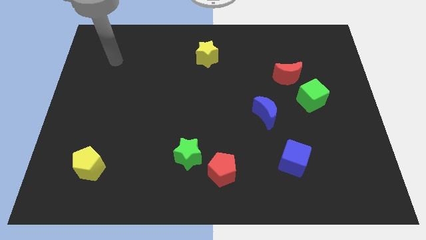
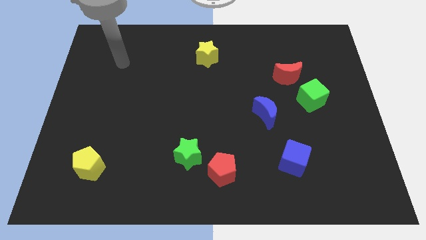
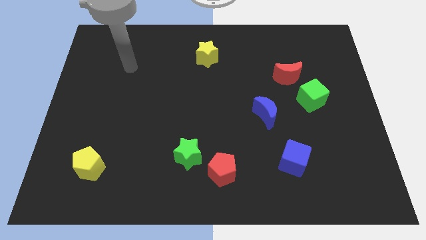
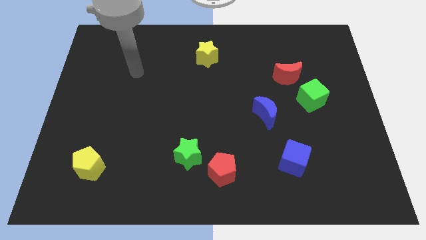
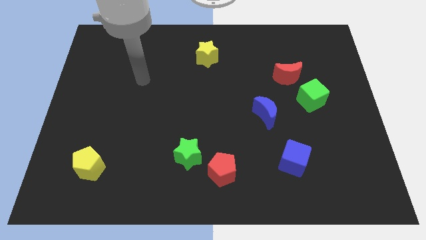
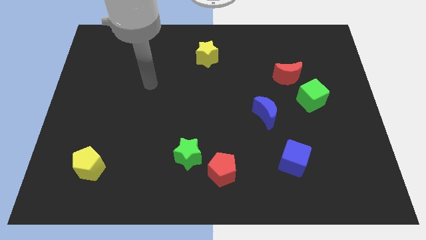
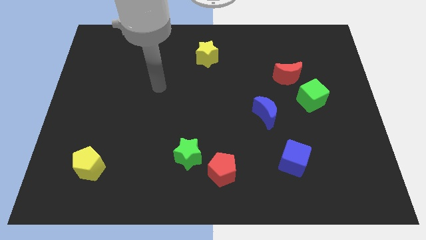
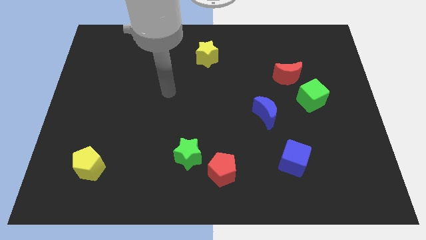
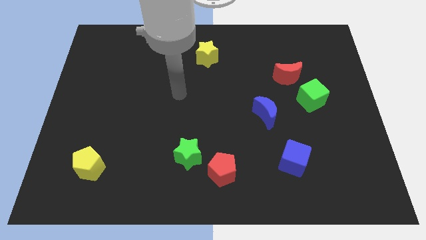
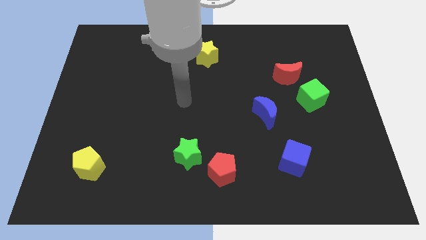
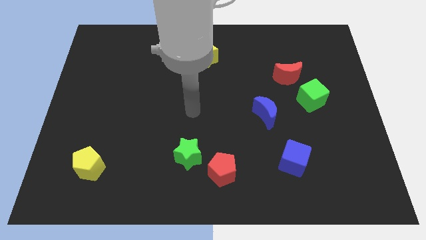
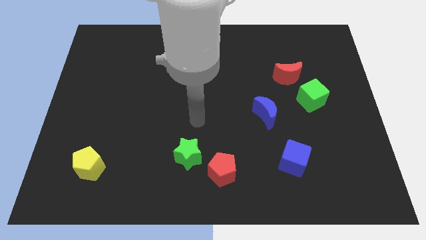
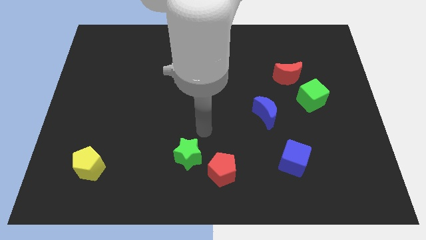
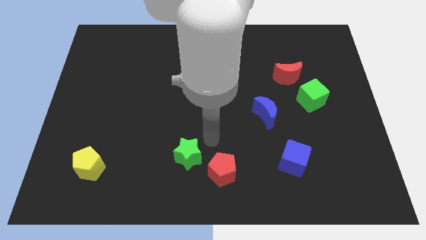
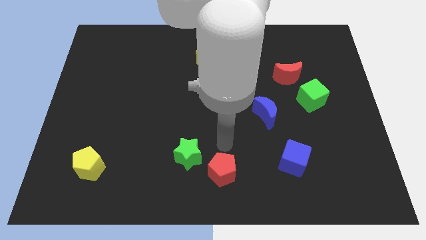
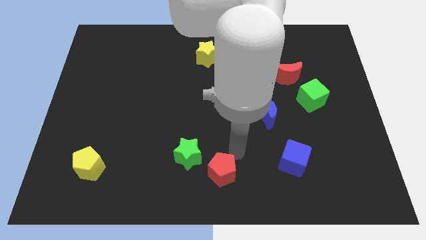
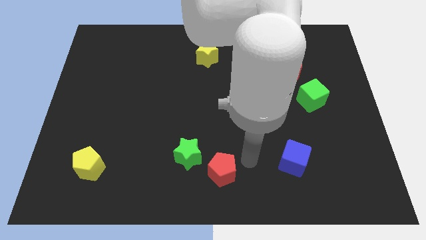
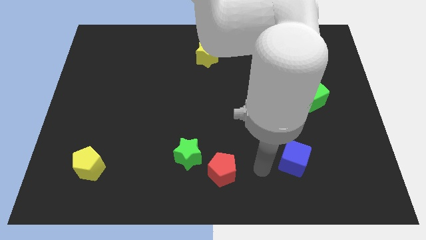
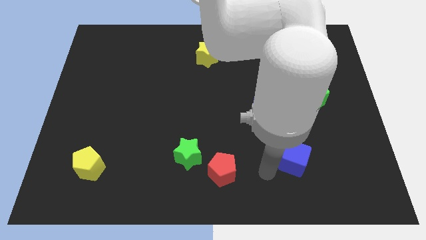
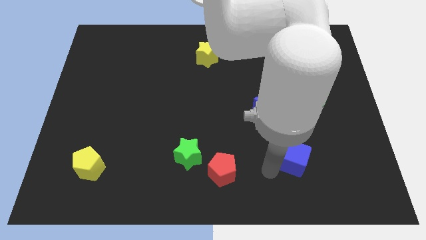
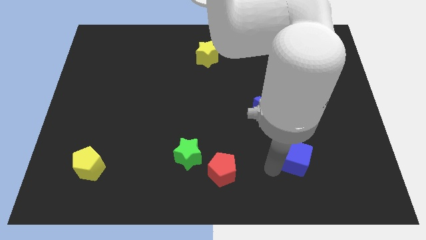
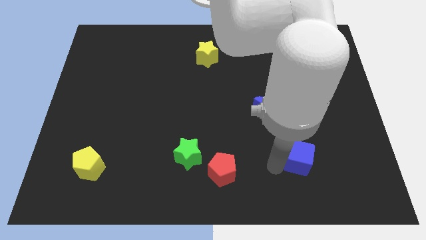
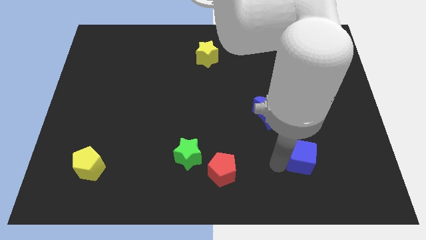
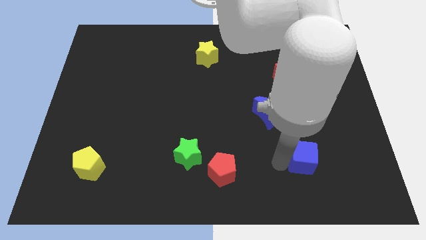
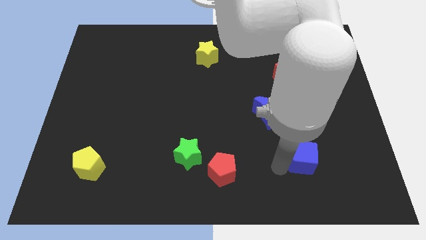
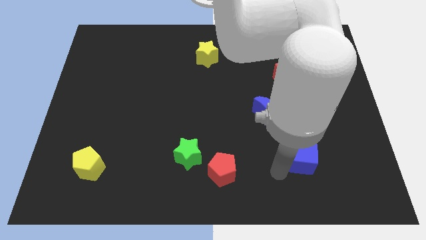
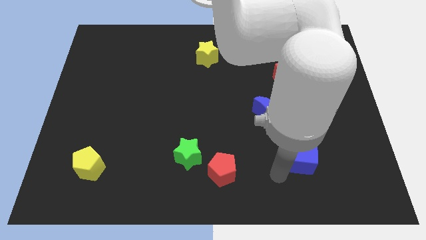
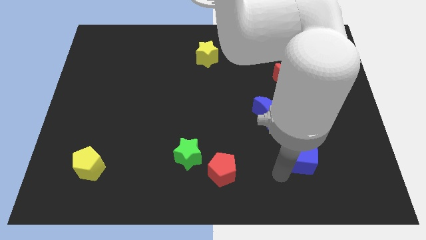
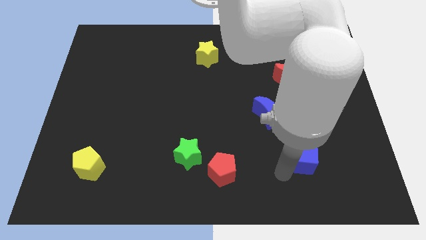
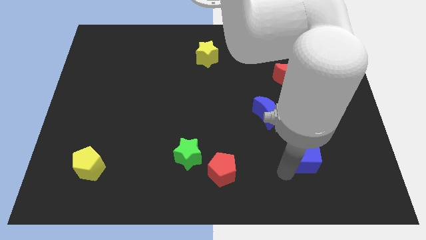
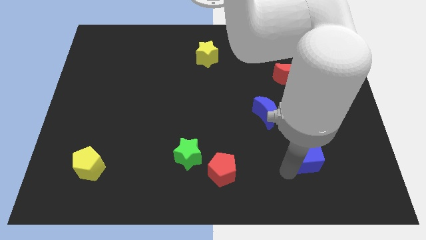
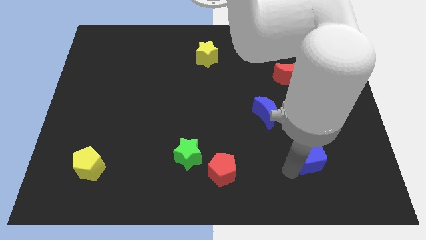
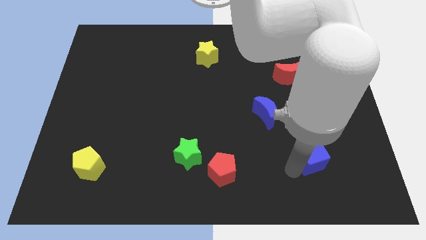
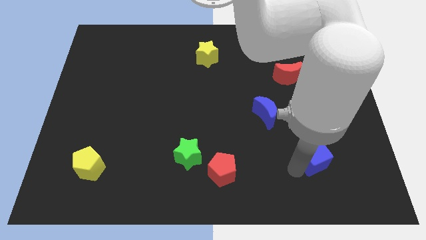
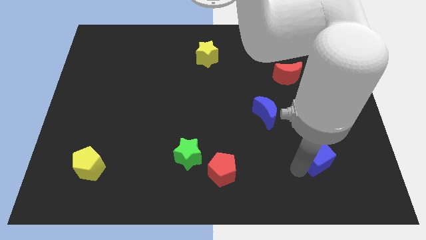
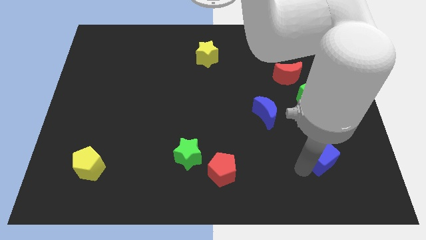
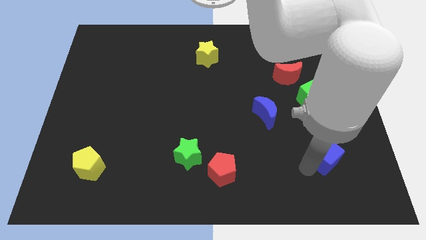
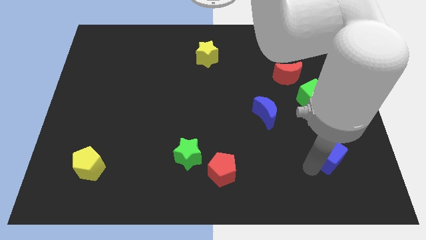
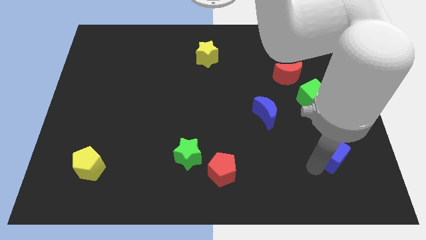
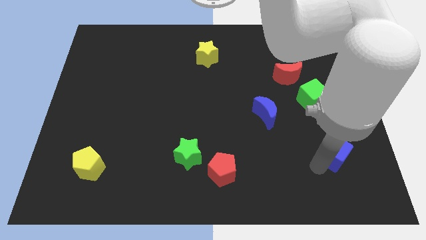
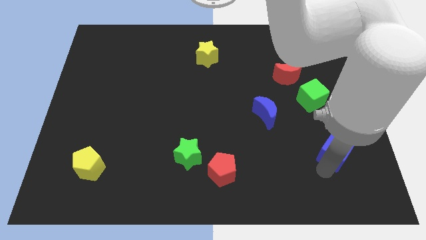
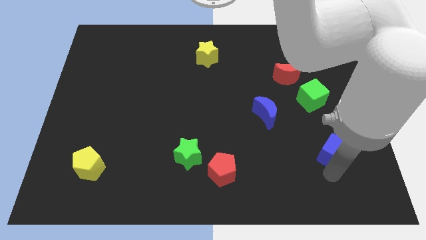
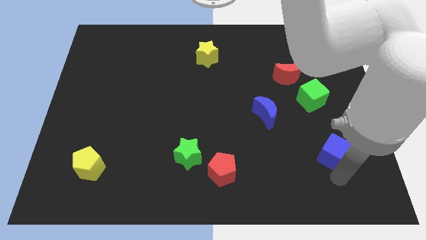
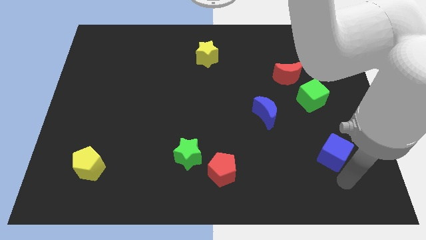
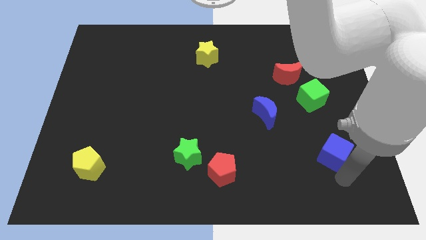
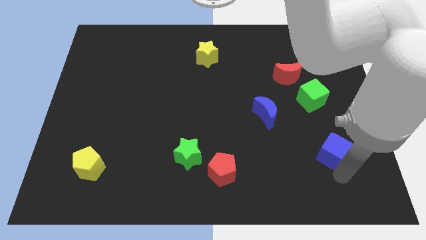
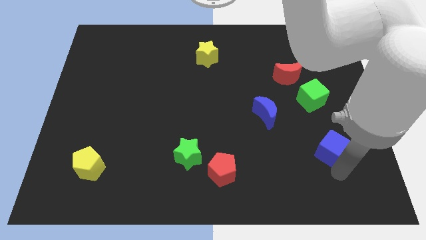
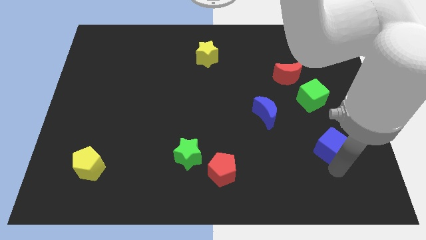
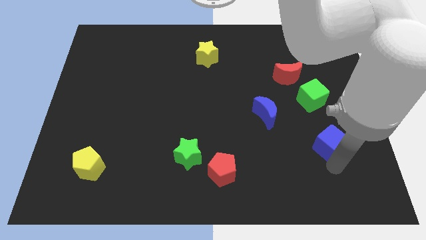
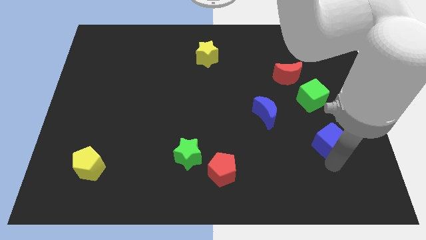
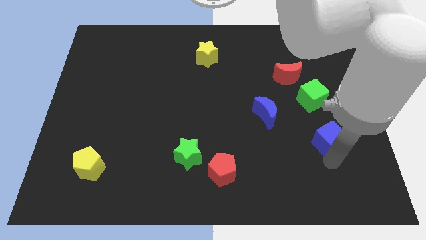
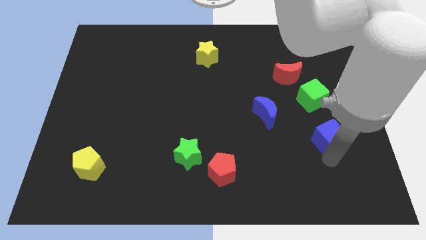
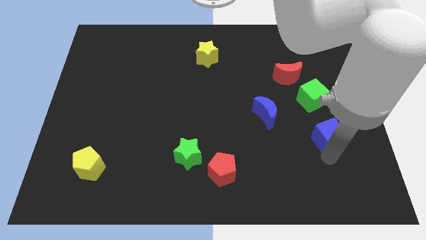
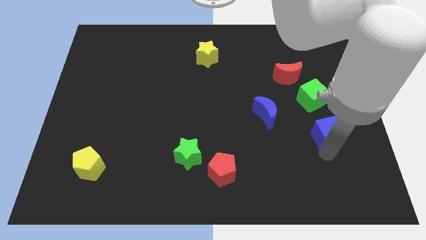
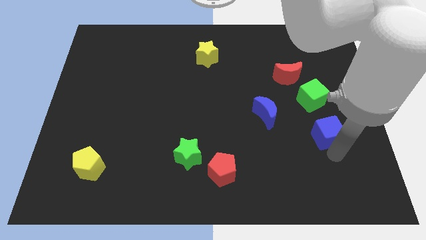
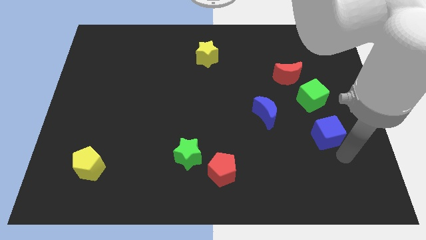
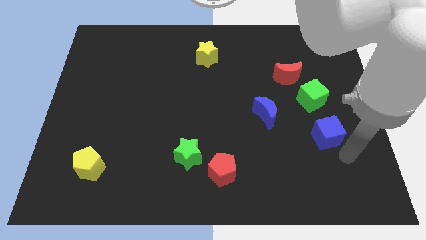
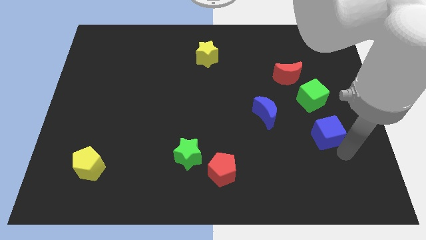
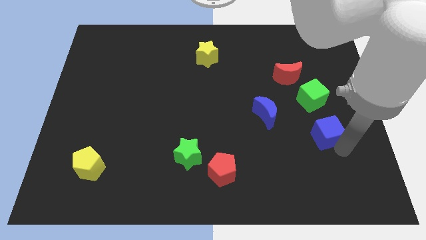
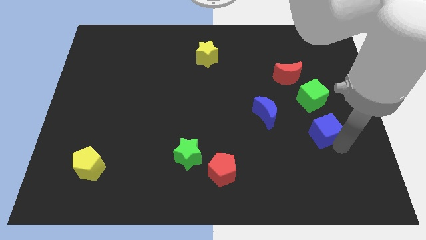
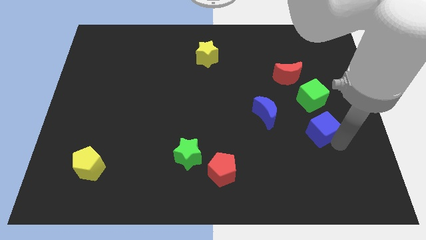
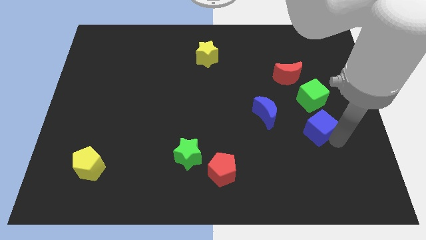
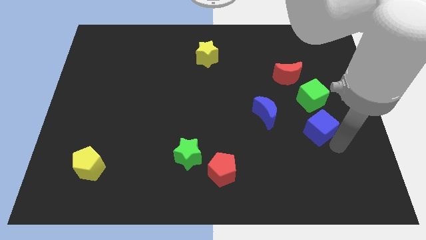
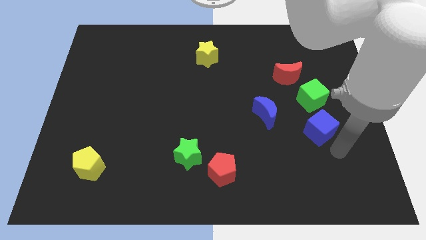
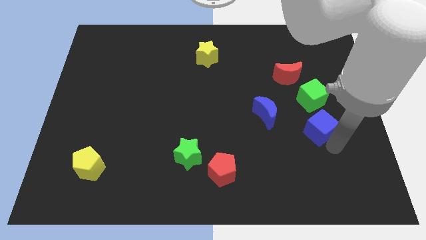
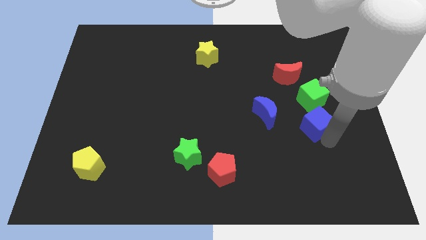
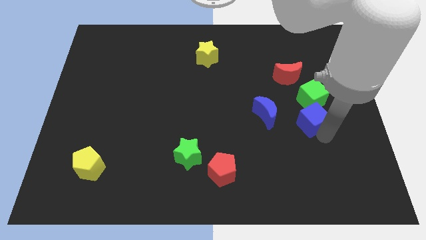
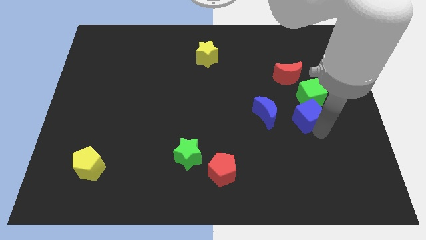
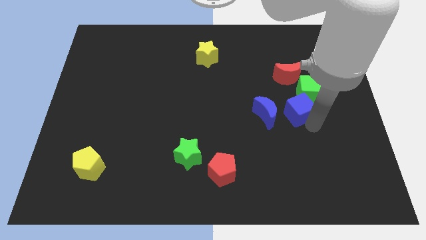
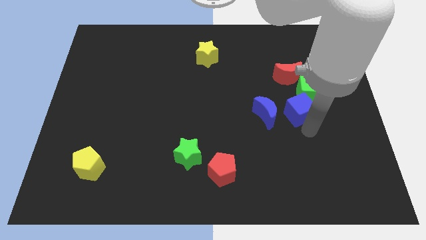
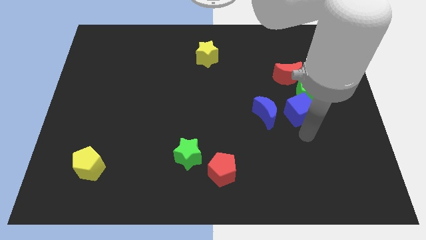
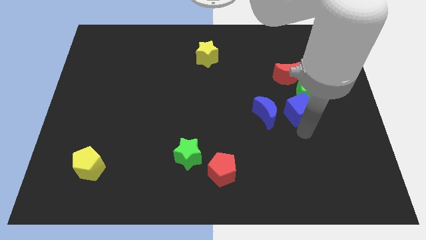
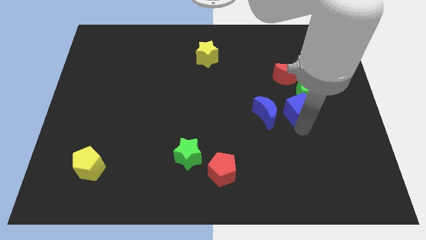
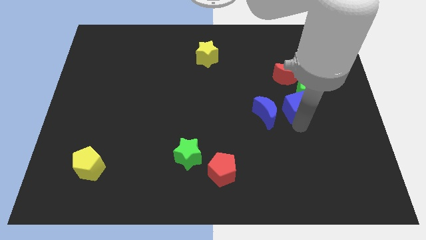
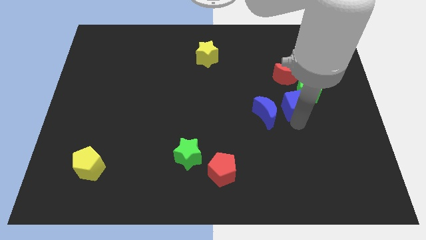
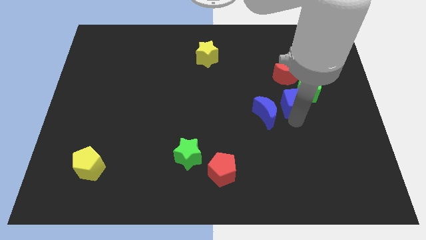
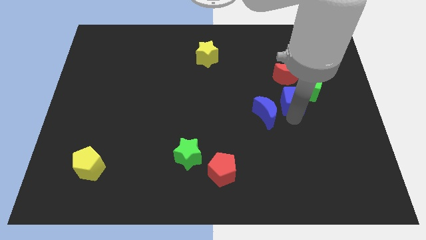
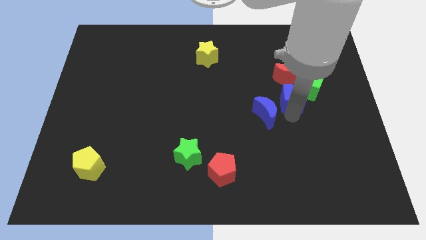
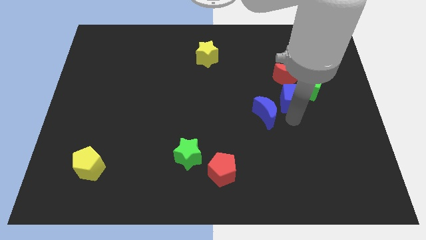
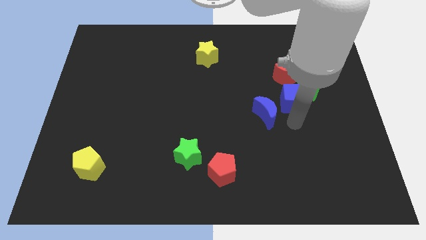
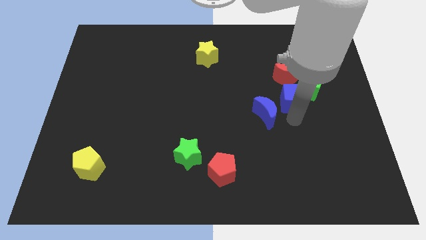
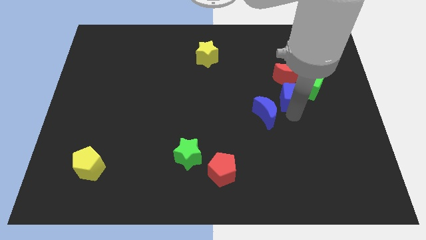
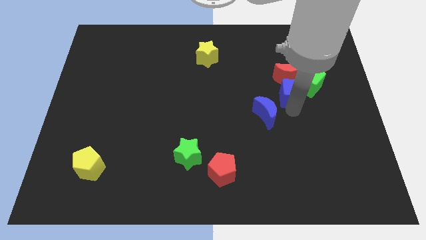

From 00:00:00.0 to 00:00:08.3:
put the blue cube close to the red moon
